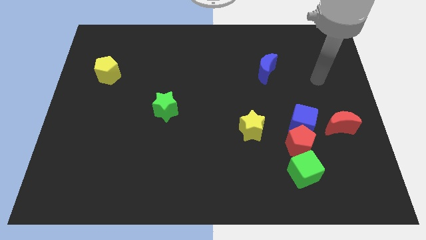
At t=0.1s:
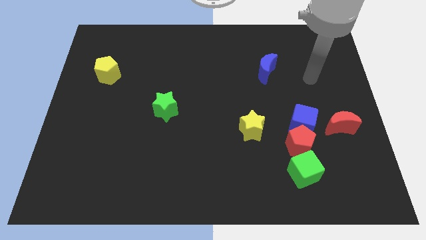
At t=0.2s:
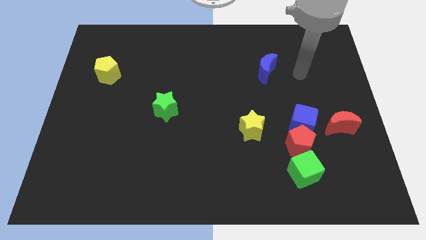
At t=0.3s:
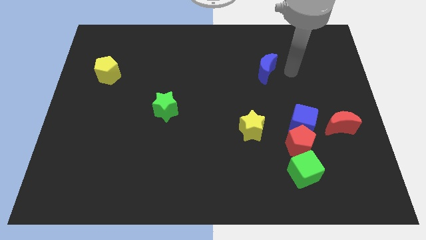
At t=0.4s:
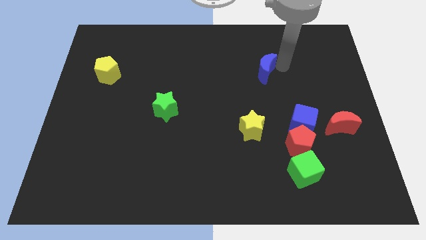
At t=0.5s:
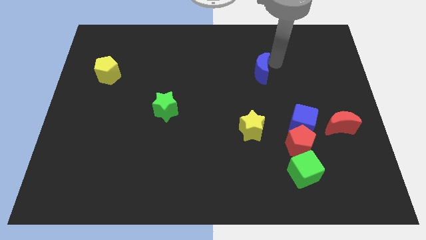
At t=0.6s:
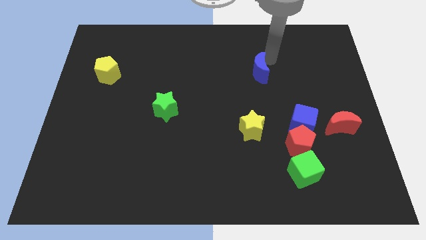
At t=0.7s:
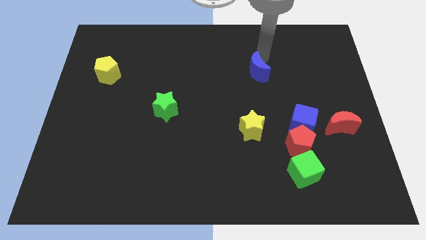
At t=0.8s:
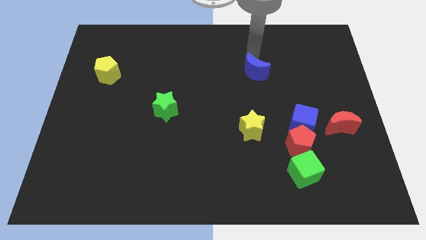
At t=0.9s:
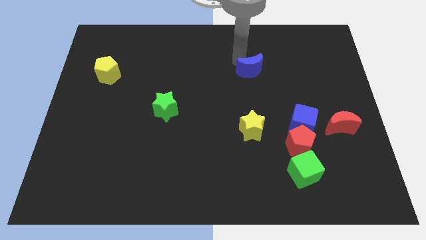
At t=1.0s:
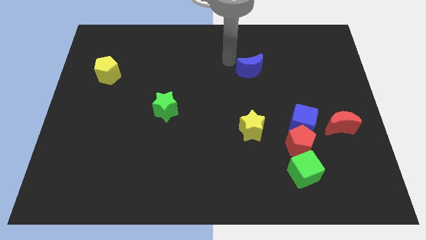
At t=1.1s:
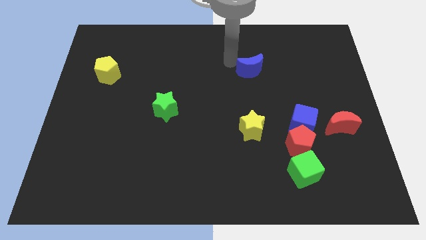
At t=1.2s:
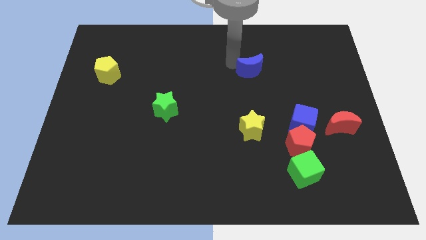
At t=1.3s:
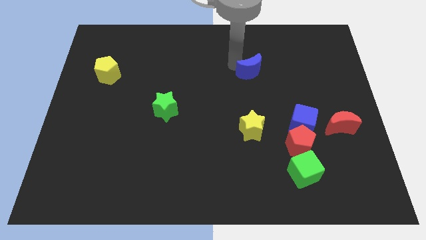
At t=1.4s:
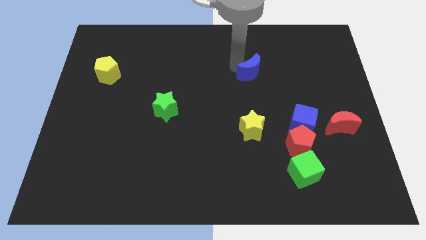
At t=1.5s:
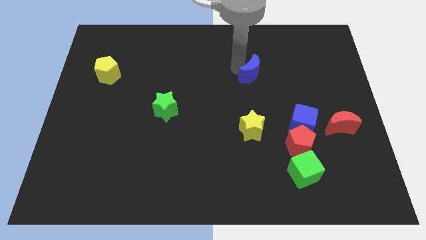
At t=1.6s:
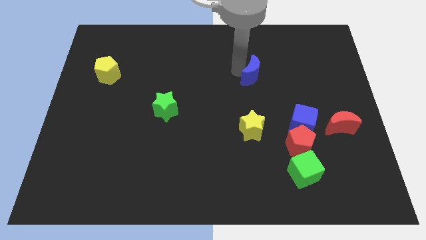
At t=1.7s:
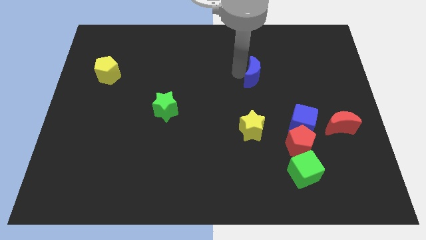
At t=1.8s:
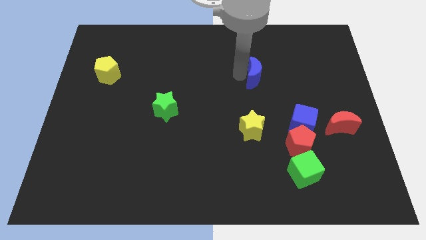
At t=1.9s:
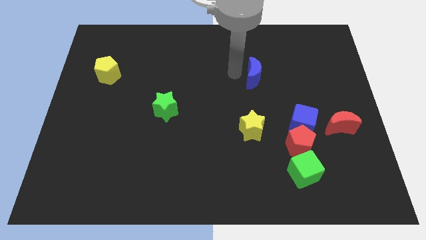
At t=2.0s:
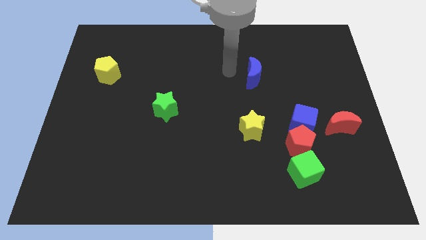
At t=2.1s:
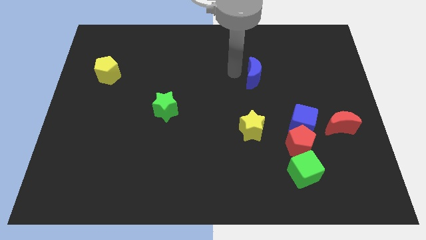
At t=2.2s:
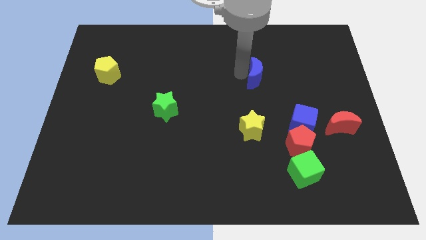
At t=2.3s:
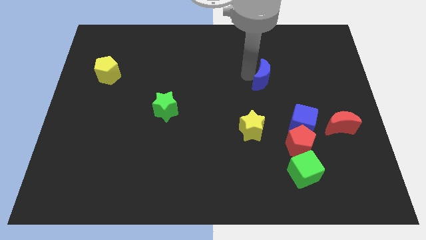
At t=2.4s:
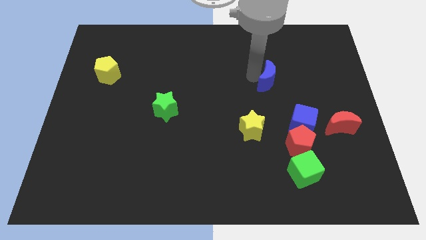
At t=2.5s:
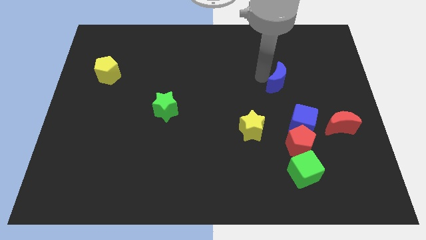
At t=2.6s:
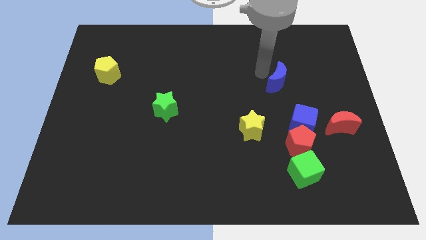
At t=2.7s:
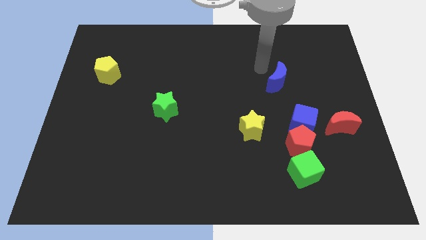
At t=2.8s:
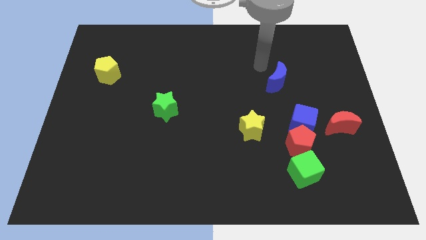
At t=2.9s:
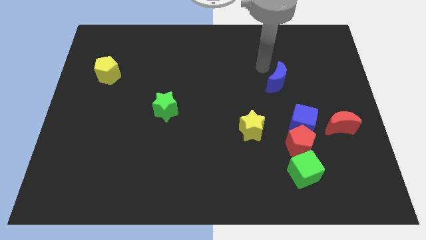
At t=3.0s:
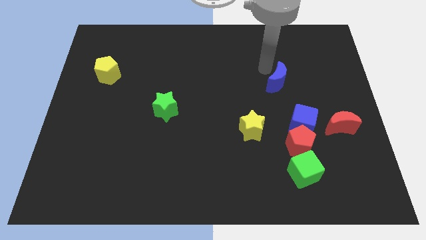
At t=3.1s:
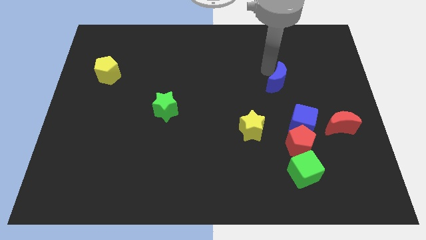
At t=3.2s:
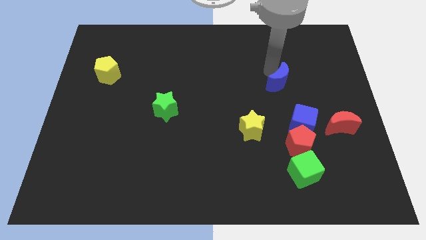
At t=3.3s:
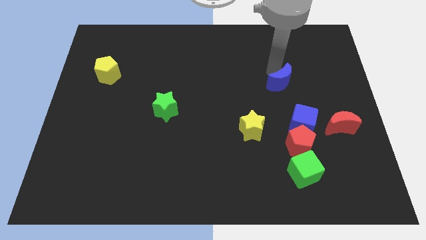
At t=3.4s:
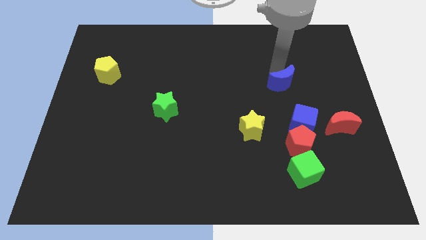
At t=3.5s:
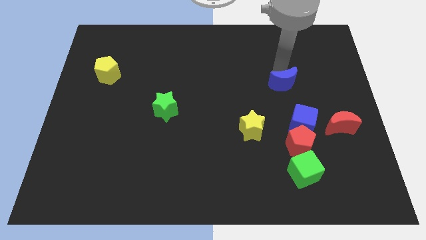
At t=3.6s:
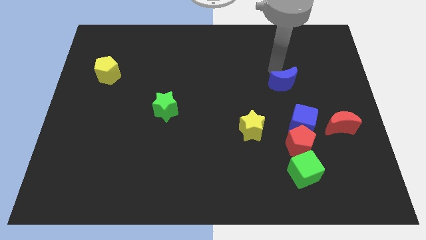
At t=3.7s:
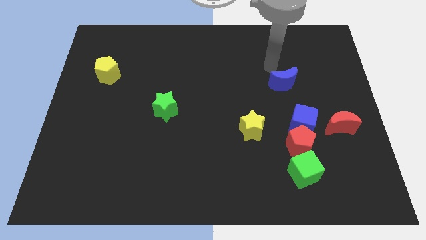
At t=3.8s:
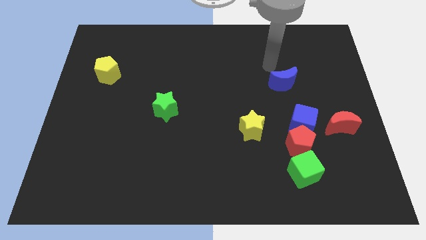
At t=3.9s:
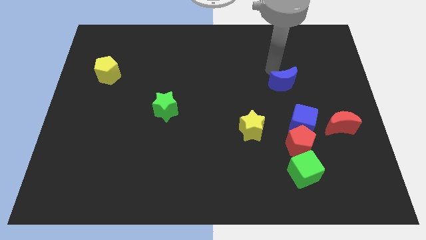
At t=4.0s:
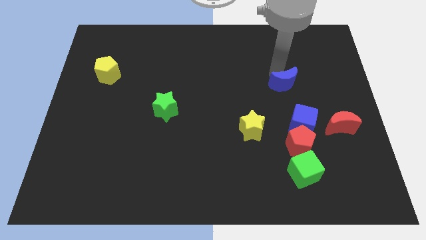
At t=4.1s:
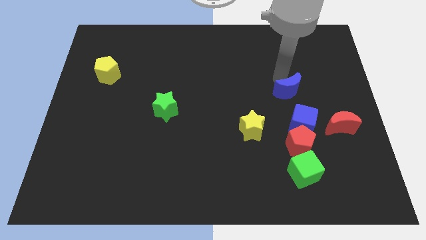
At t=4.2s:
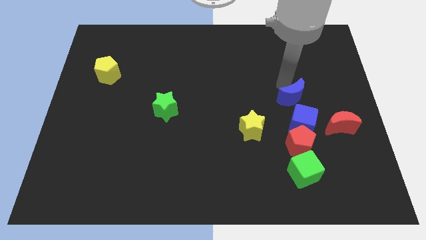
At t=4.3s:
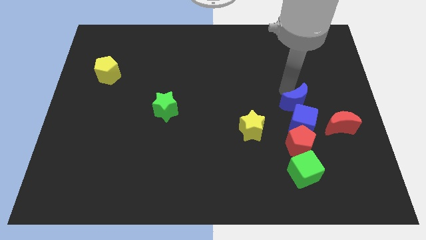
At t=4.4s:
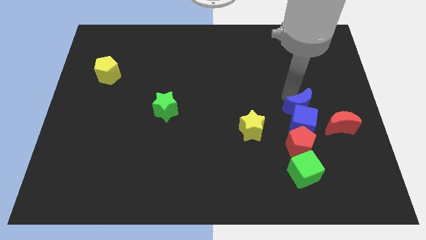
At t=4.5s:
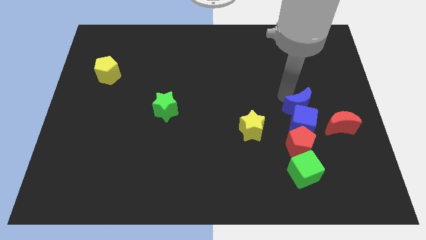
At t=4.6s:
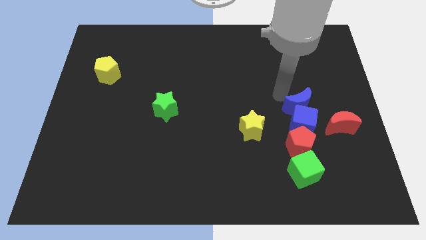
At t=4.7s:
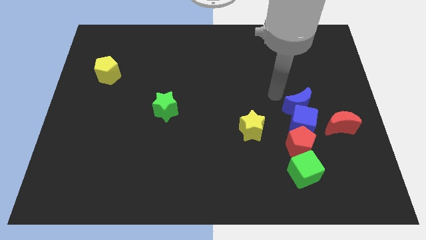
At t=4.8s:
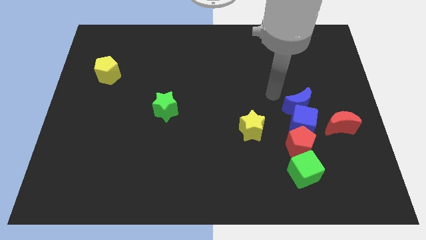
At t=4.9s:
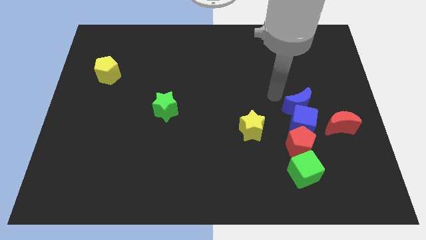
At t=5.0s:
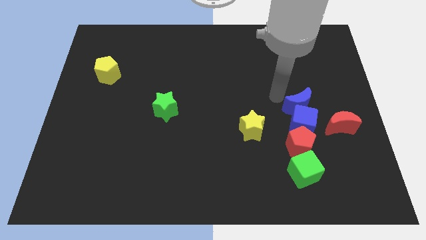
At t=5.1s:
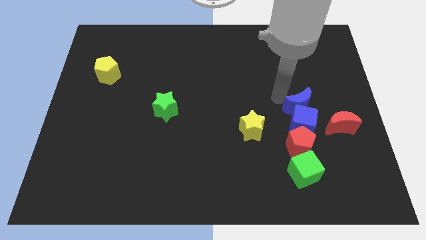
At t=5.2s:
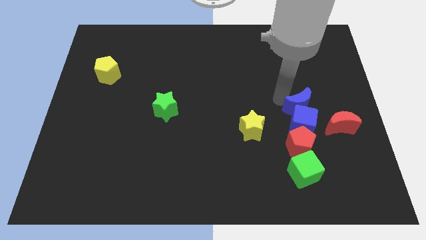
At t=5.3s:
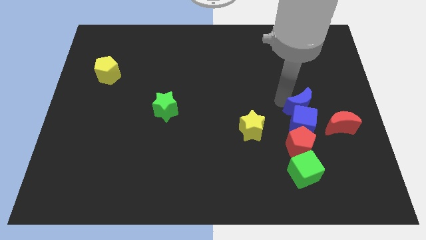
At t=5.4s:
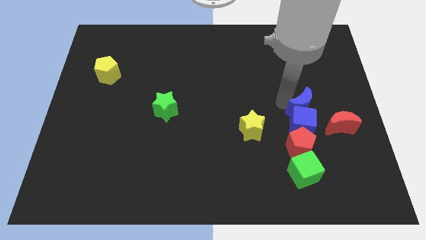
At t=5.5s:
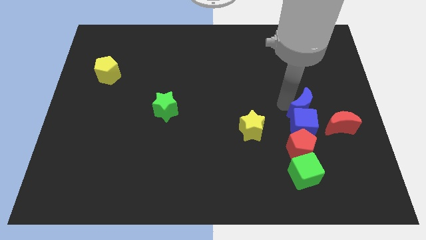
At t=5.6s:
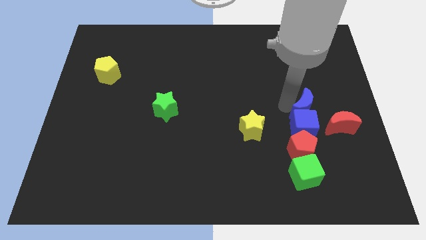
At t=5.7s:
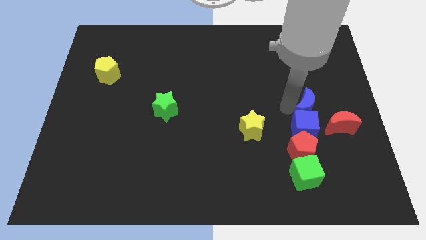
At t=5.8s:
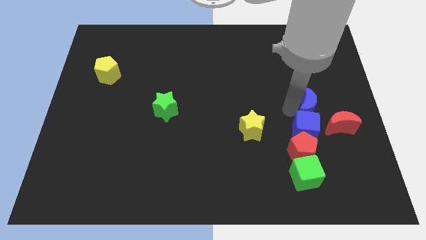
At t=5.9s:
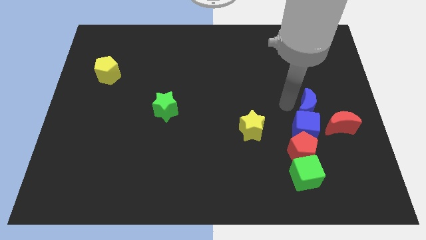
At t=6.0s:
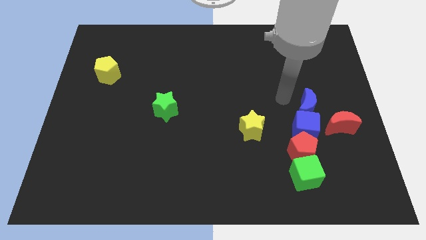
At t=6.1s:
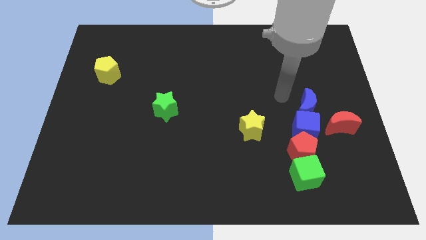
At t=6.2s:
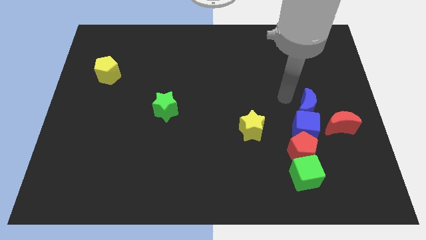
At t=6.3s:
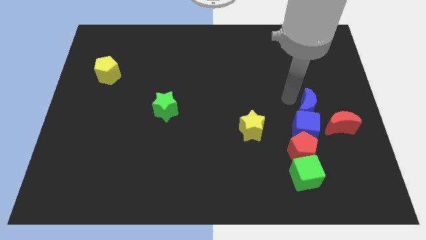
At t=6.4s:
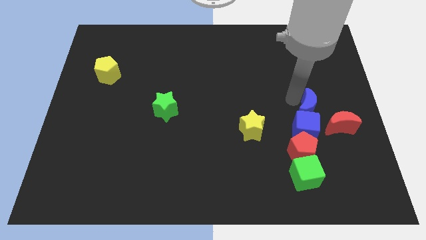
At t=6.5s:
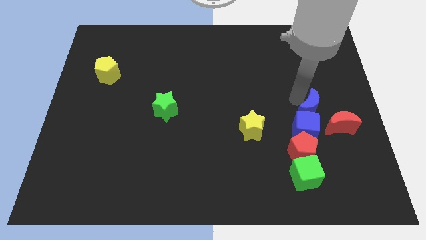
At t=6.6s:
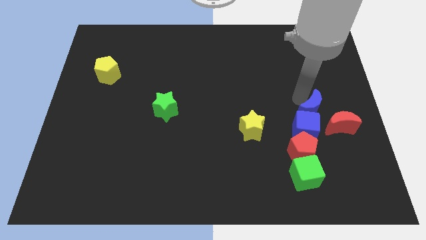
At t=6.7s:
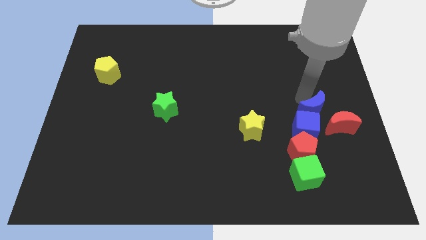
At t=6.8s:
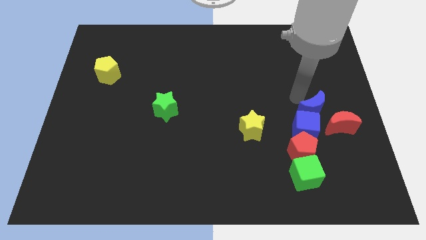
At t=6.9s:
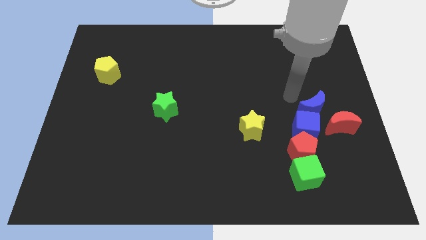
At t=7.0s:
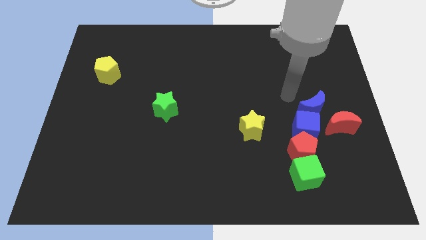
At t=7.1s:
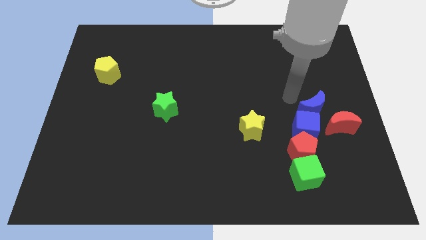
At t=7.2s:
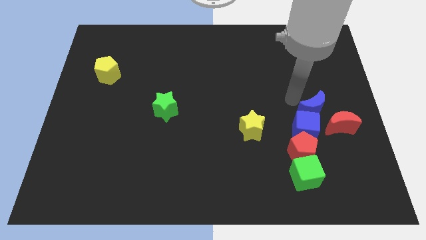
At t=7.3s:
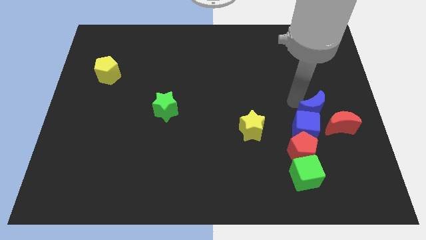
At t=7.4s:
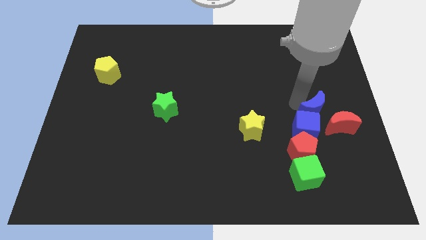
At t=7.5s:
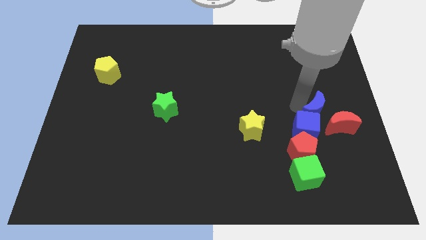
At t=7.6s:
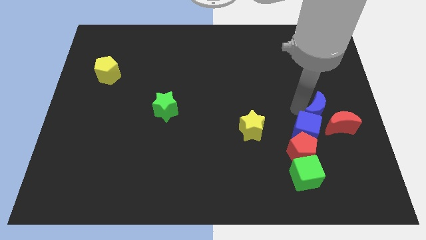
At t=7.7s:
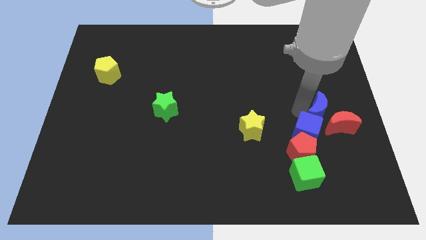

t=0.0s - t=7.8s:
push the blue moon to the red moon
